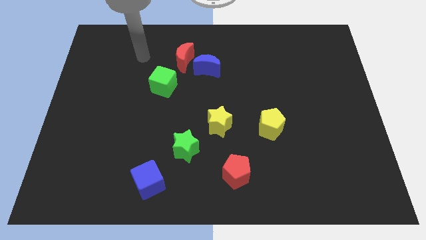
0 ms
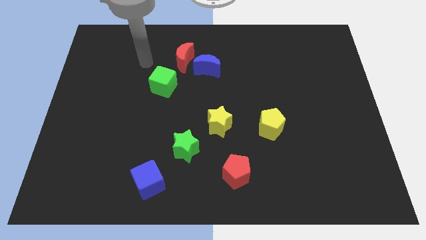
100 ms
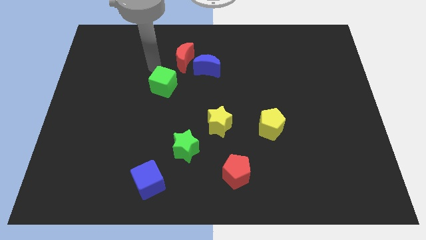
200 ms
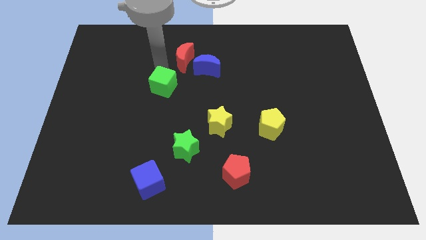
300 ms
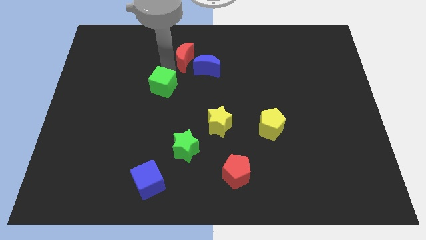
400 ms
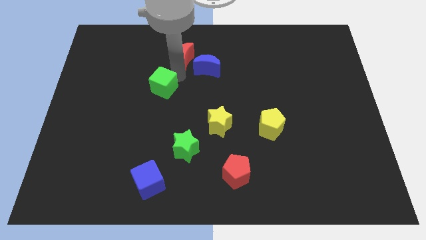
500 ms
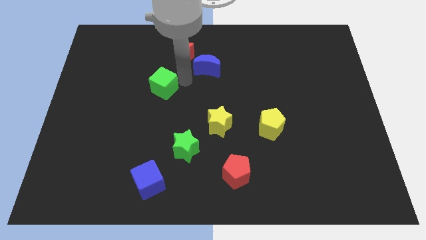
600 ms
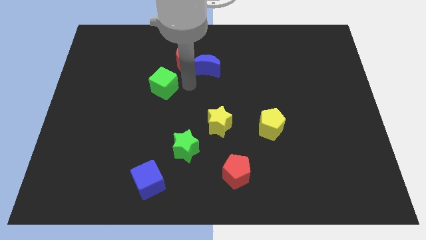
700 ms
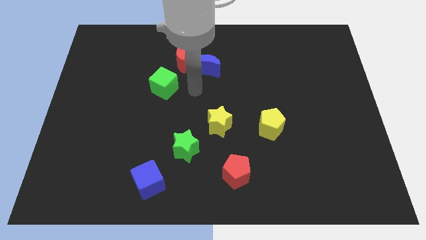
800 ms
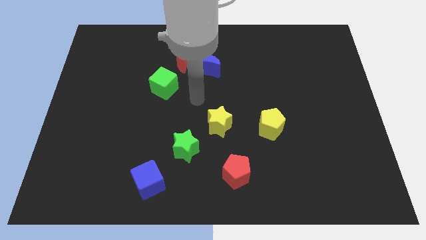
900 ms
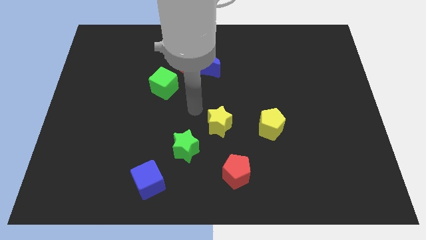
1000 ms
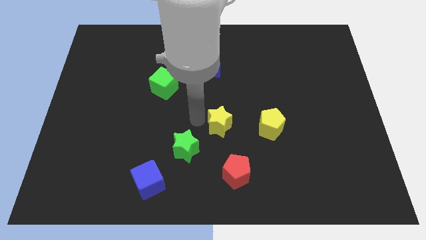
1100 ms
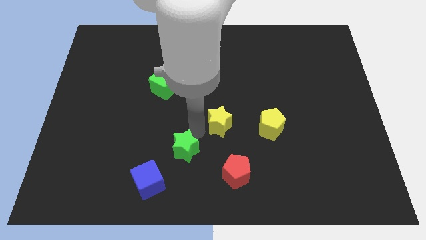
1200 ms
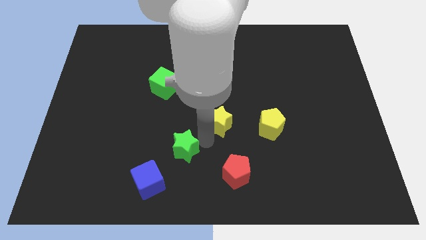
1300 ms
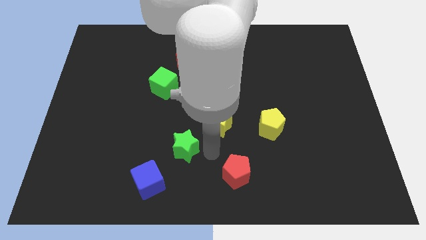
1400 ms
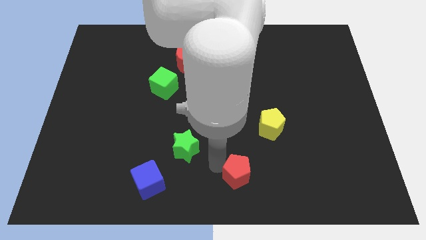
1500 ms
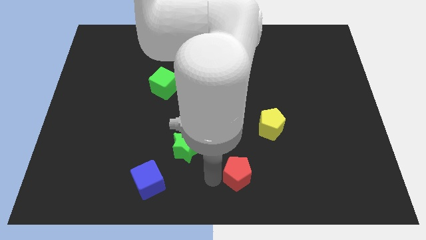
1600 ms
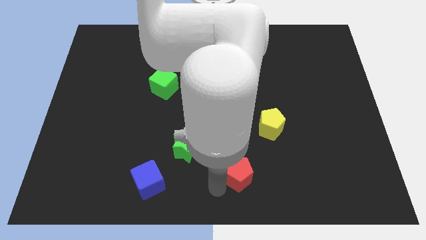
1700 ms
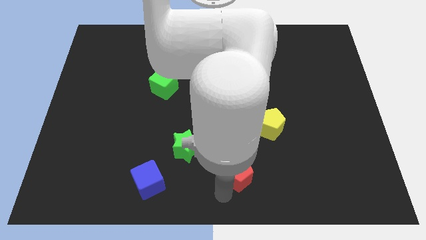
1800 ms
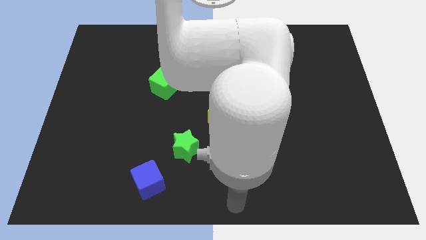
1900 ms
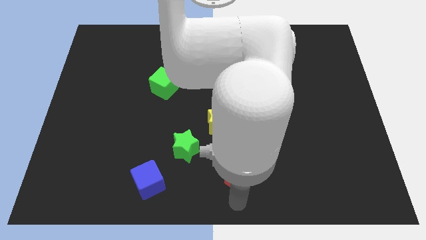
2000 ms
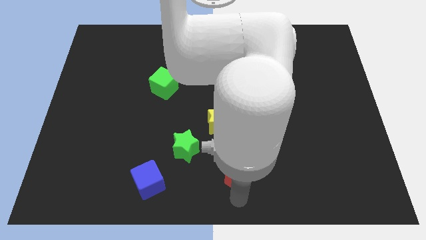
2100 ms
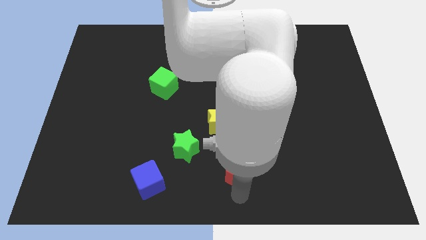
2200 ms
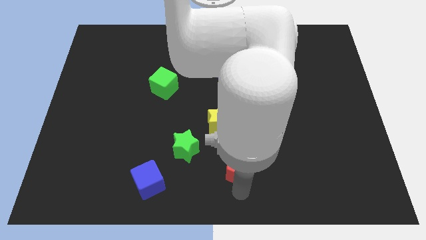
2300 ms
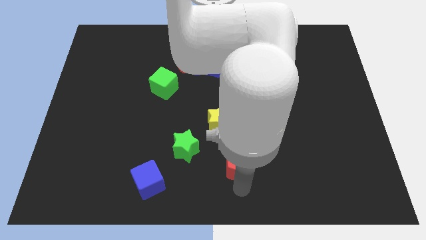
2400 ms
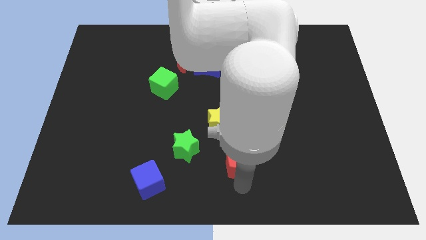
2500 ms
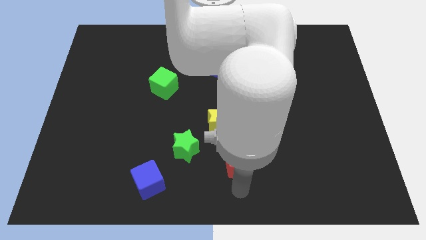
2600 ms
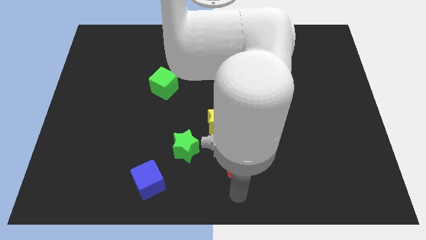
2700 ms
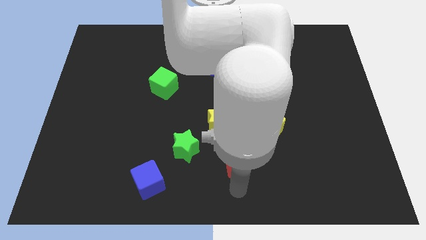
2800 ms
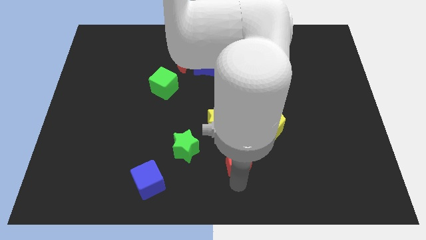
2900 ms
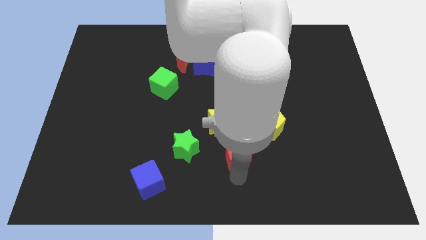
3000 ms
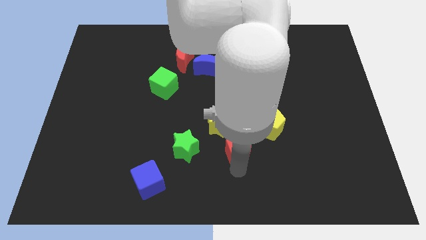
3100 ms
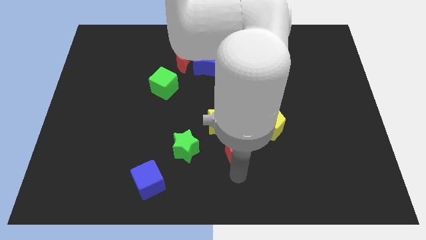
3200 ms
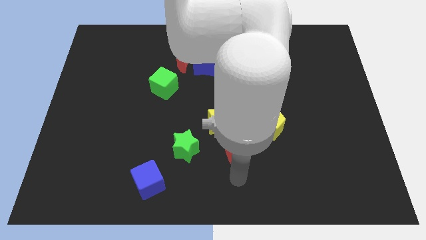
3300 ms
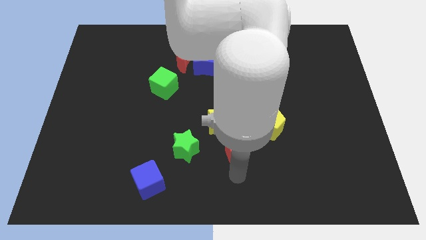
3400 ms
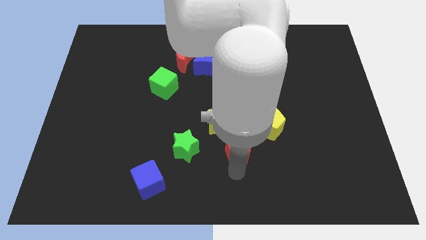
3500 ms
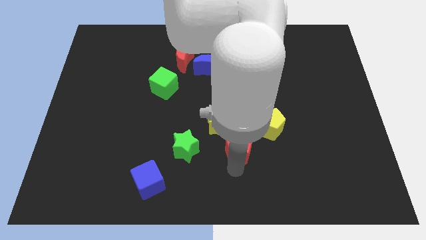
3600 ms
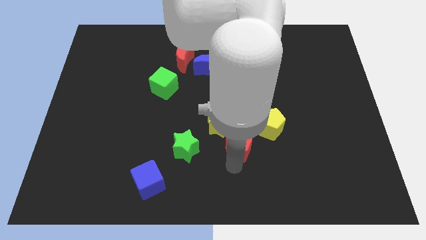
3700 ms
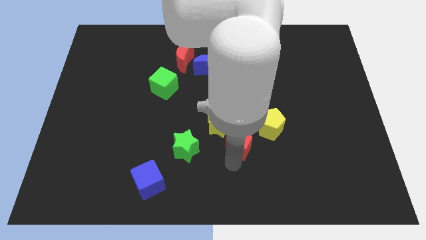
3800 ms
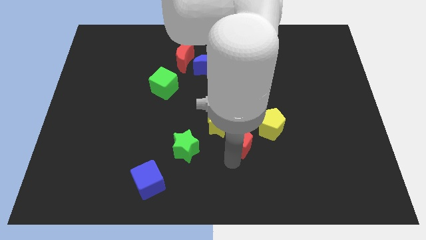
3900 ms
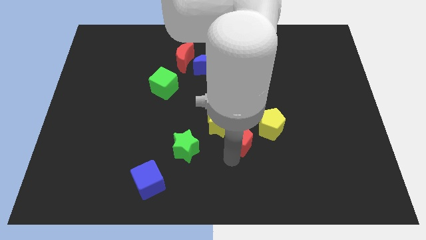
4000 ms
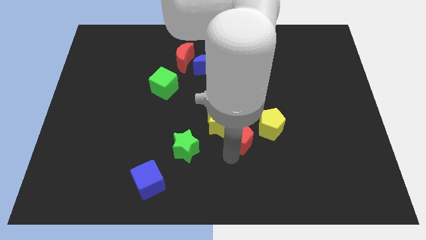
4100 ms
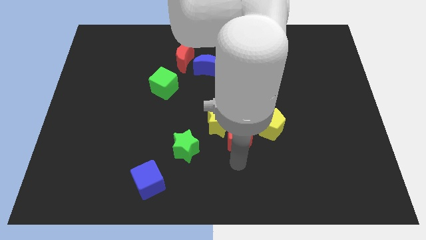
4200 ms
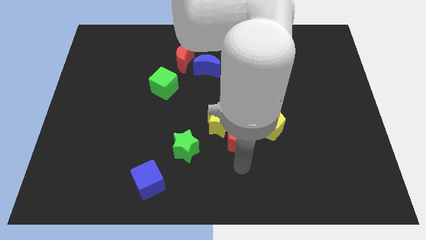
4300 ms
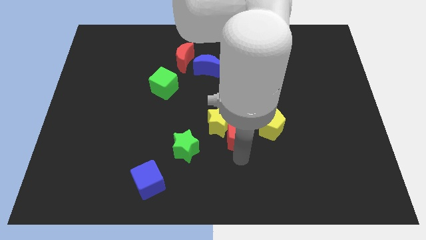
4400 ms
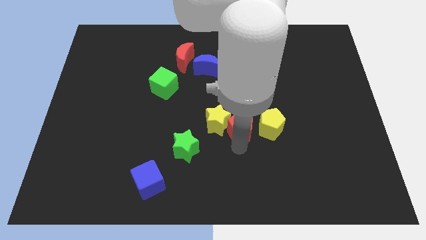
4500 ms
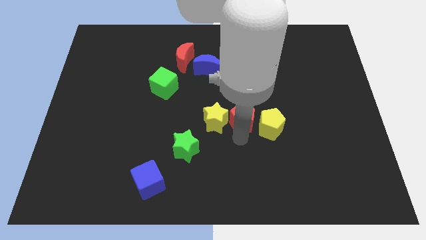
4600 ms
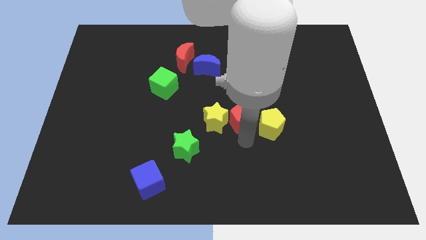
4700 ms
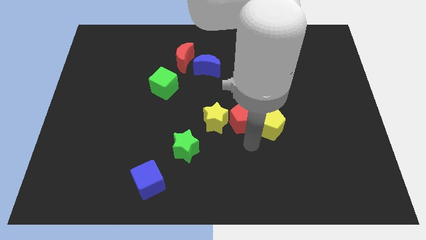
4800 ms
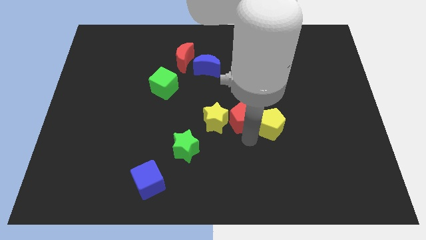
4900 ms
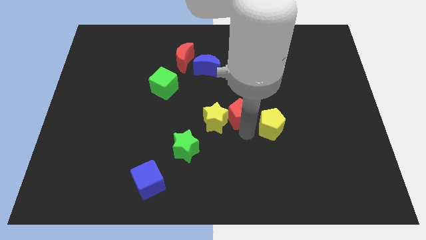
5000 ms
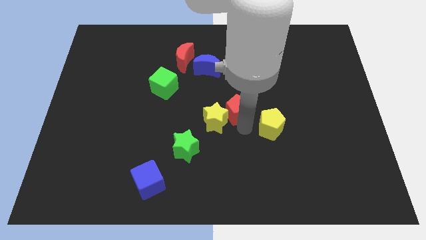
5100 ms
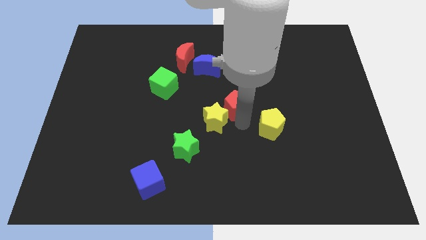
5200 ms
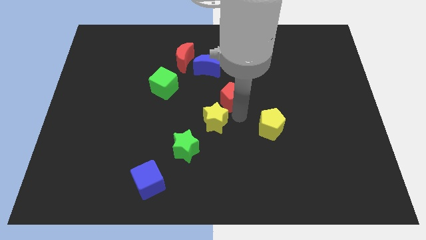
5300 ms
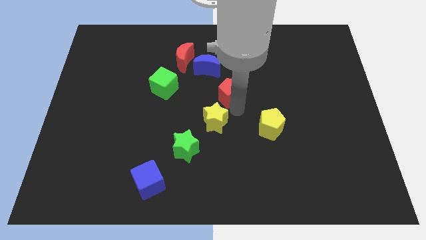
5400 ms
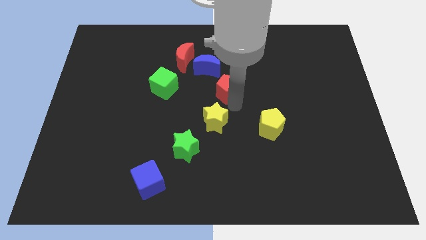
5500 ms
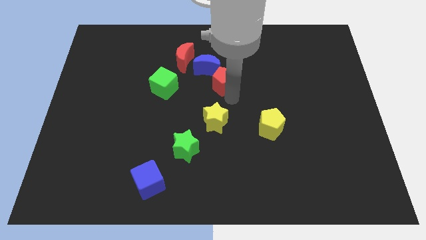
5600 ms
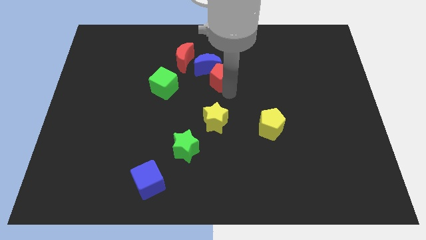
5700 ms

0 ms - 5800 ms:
push the red pentagon towards the blue moon

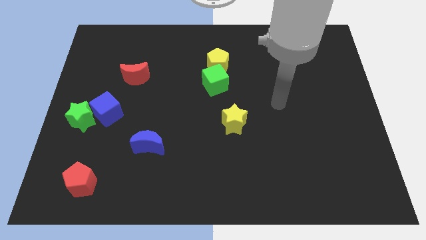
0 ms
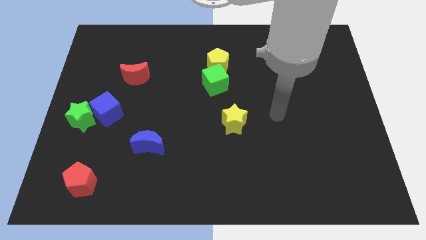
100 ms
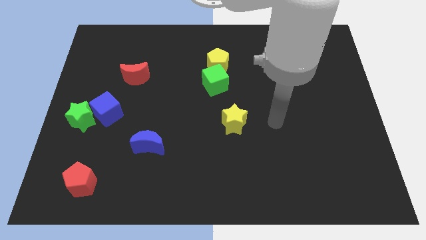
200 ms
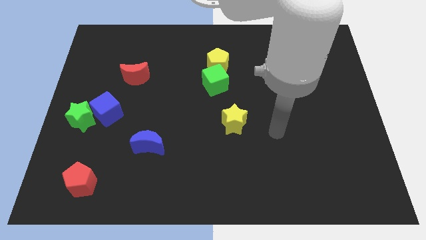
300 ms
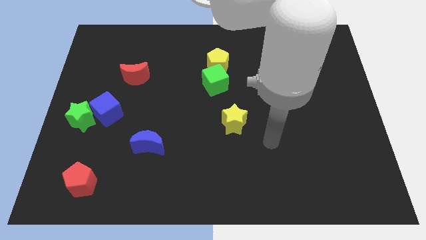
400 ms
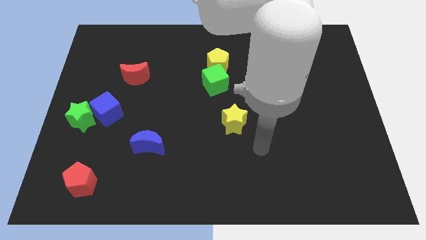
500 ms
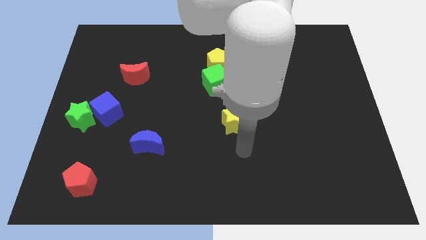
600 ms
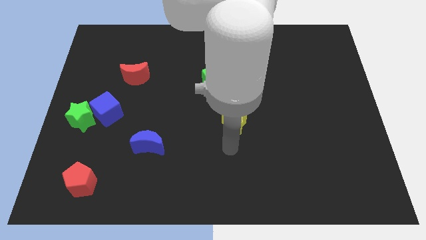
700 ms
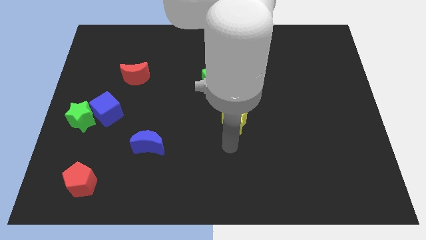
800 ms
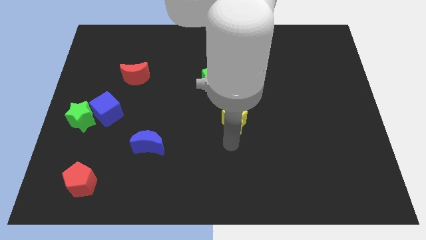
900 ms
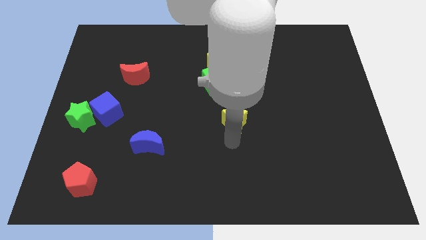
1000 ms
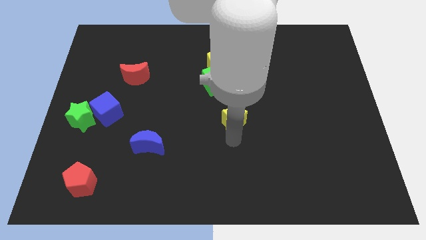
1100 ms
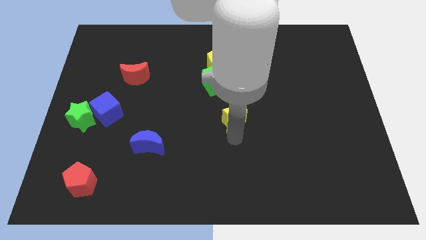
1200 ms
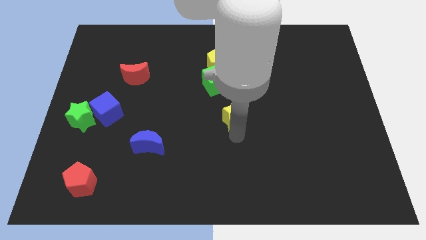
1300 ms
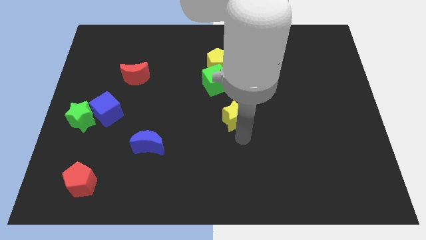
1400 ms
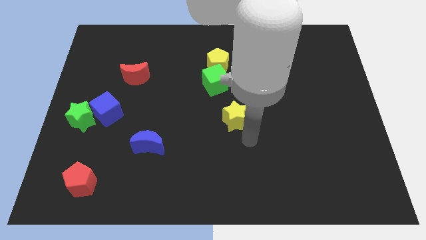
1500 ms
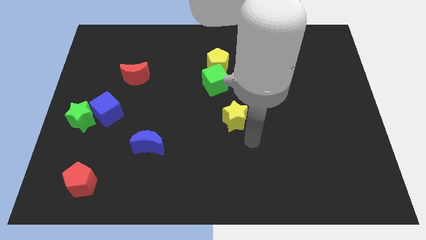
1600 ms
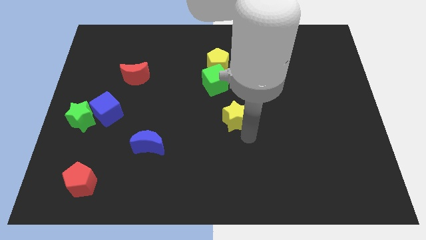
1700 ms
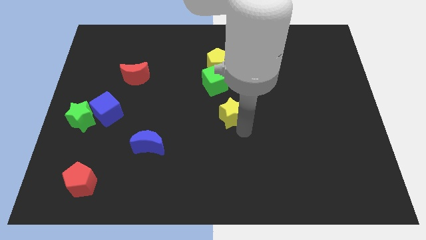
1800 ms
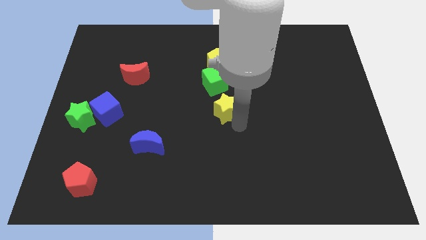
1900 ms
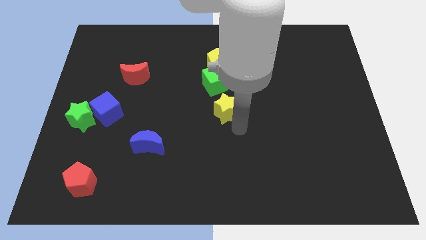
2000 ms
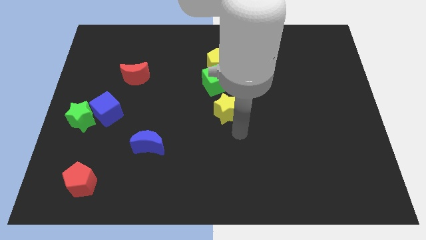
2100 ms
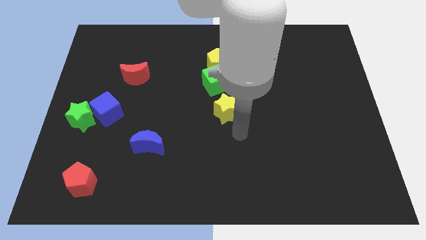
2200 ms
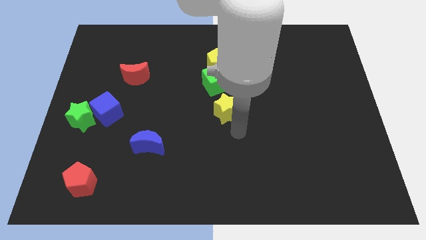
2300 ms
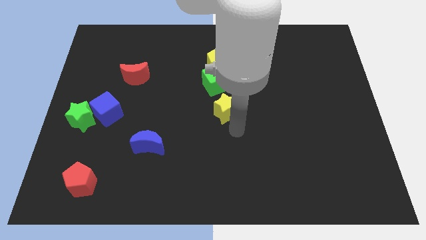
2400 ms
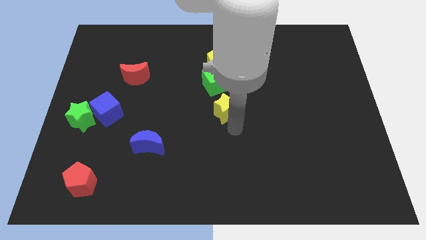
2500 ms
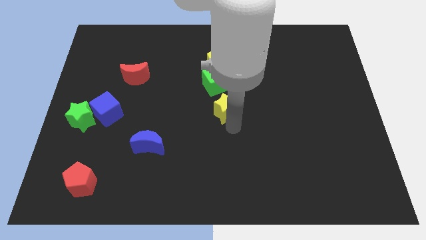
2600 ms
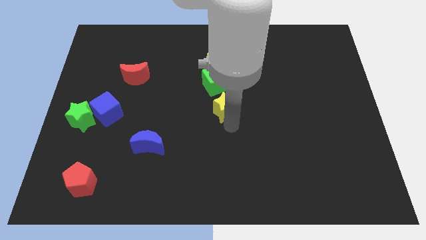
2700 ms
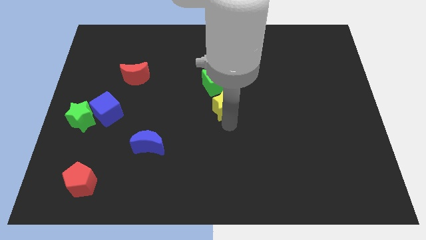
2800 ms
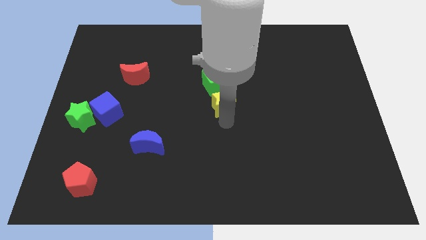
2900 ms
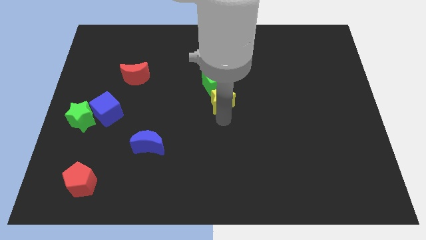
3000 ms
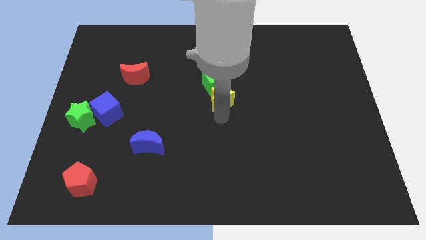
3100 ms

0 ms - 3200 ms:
move the yellow star close to the green cube
